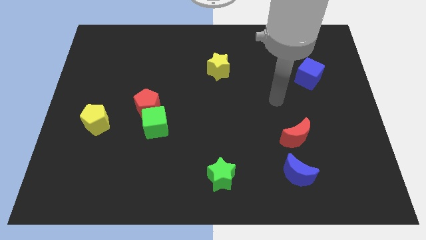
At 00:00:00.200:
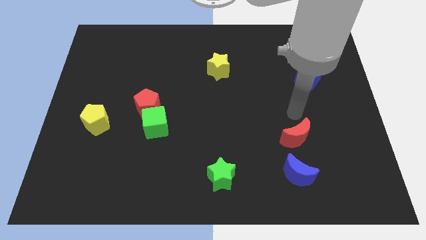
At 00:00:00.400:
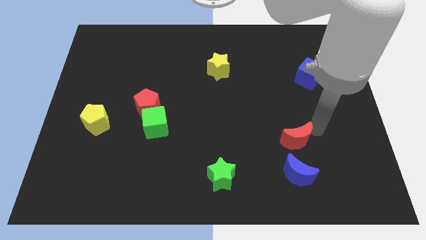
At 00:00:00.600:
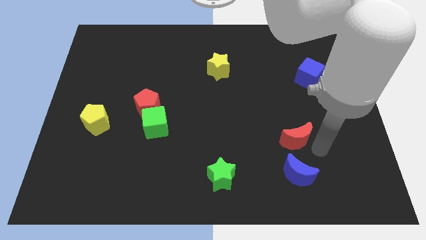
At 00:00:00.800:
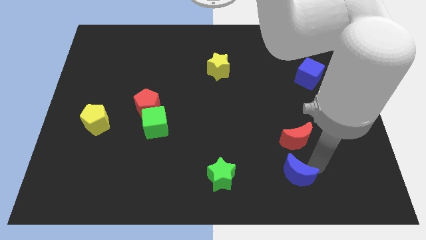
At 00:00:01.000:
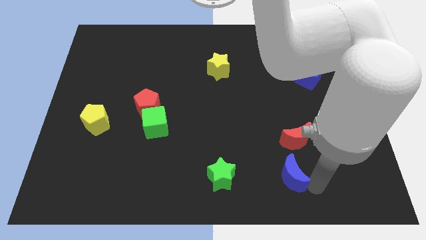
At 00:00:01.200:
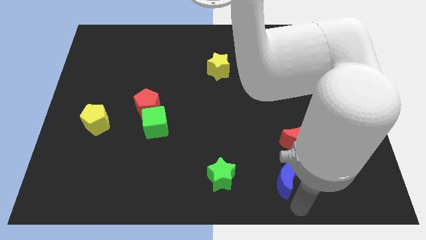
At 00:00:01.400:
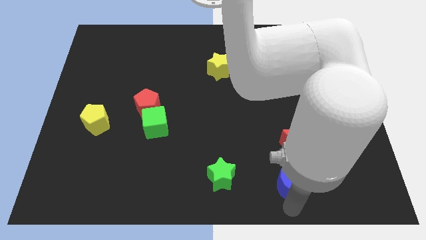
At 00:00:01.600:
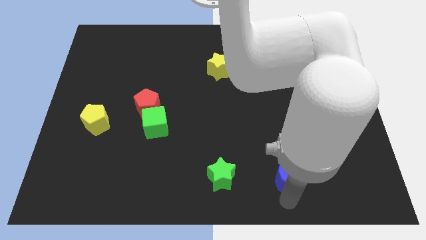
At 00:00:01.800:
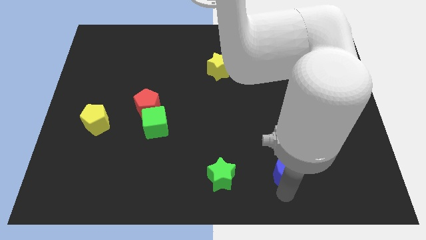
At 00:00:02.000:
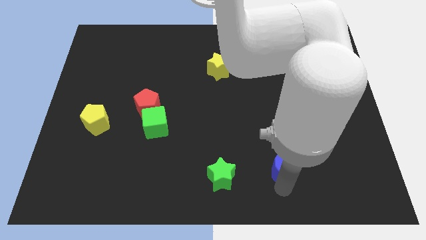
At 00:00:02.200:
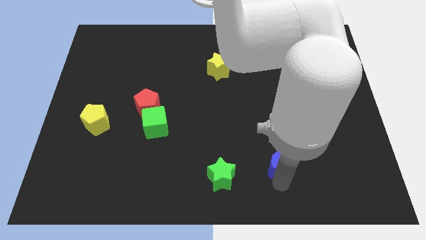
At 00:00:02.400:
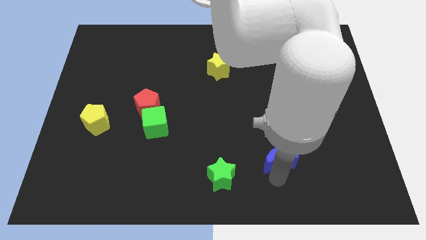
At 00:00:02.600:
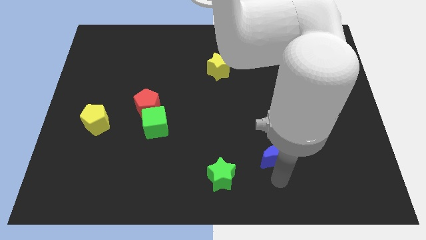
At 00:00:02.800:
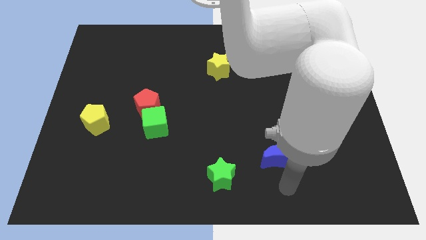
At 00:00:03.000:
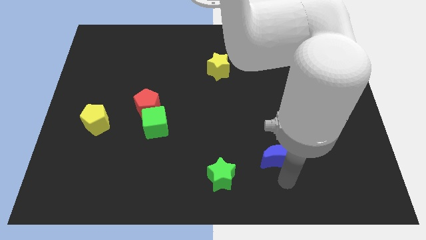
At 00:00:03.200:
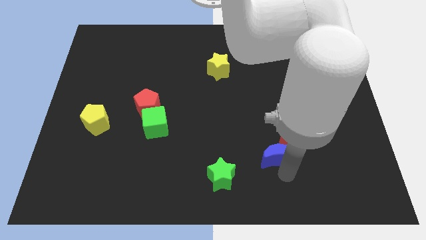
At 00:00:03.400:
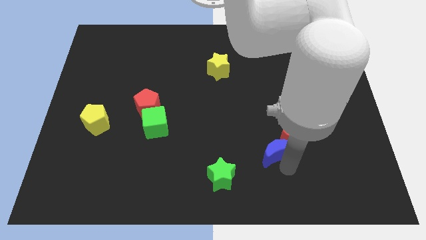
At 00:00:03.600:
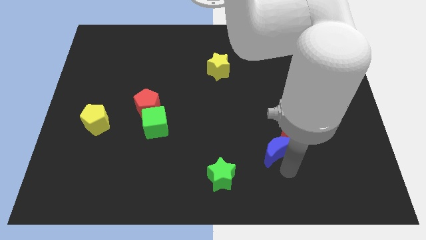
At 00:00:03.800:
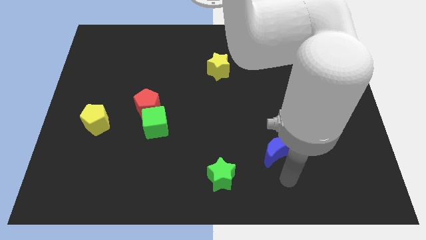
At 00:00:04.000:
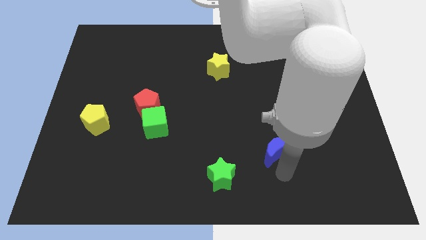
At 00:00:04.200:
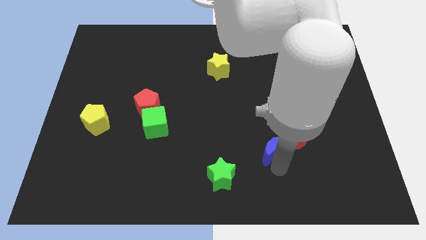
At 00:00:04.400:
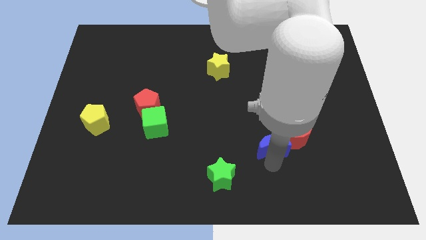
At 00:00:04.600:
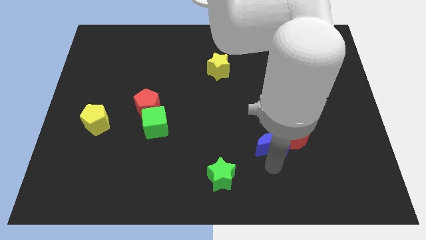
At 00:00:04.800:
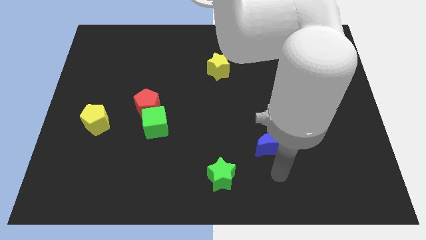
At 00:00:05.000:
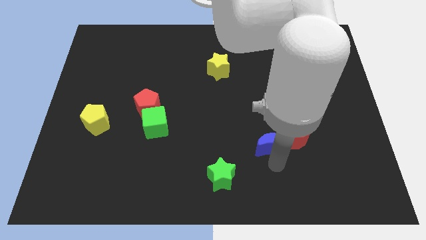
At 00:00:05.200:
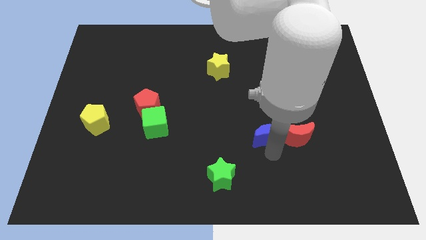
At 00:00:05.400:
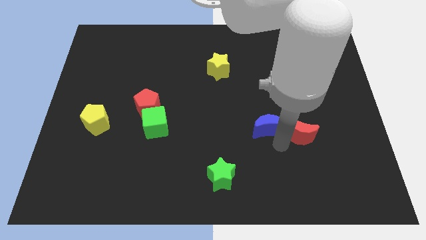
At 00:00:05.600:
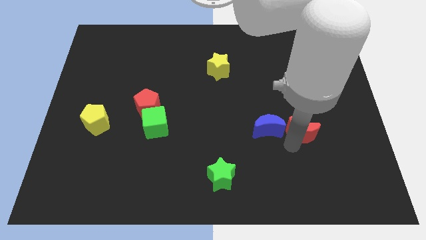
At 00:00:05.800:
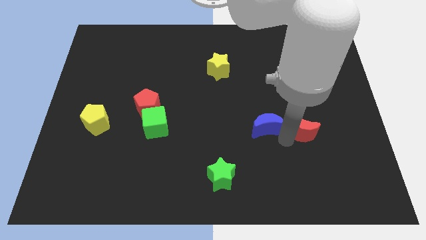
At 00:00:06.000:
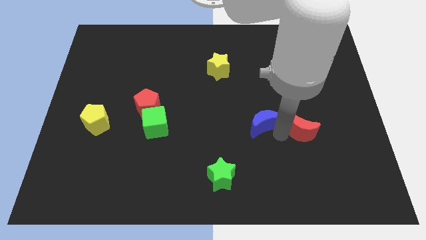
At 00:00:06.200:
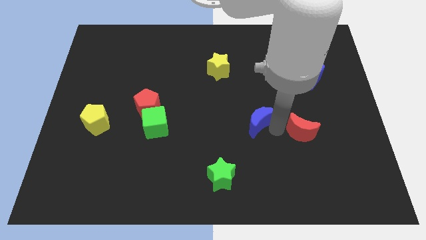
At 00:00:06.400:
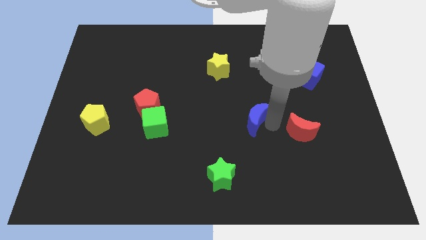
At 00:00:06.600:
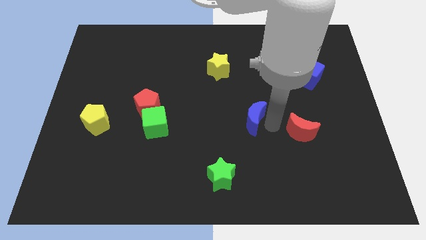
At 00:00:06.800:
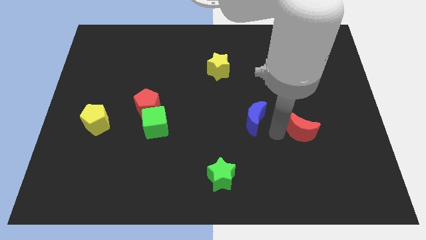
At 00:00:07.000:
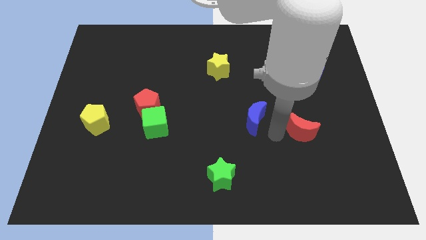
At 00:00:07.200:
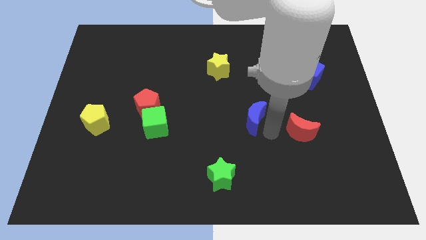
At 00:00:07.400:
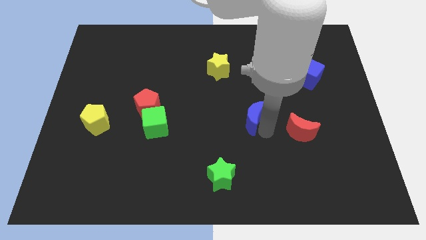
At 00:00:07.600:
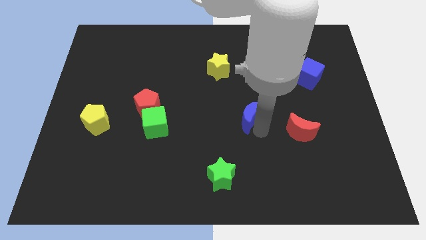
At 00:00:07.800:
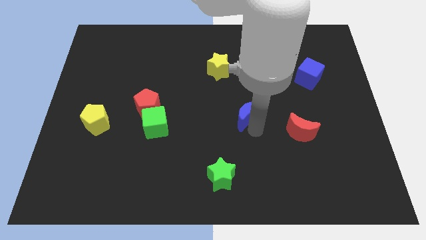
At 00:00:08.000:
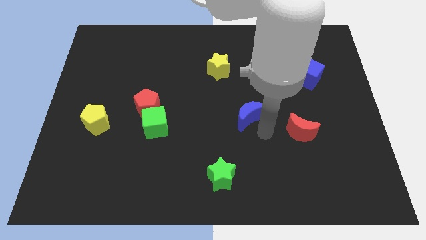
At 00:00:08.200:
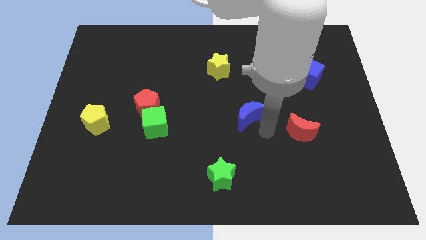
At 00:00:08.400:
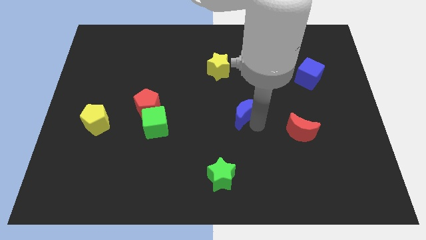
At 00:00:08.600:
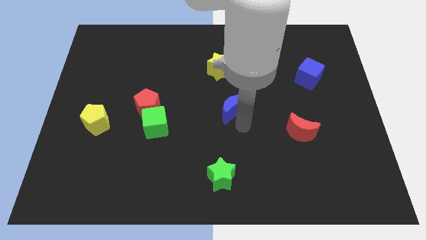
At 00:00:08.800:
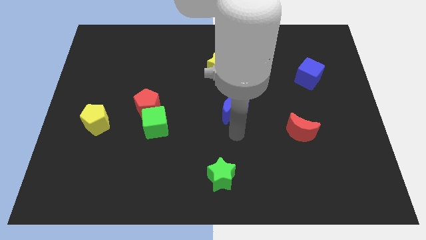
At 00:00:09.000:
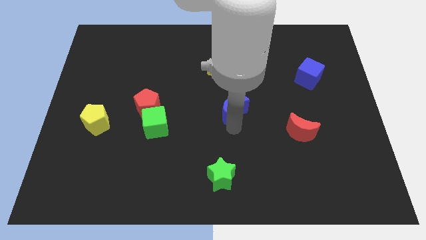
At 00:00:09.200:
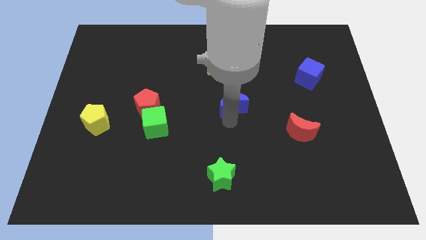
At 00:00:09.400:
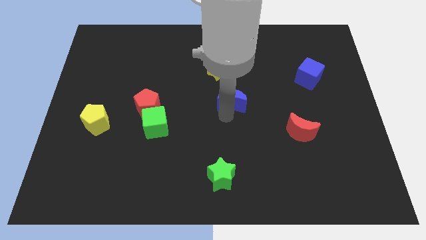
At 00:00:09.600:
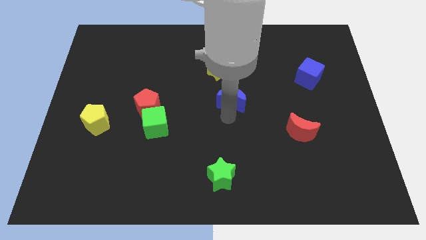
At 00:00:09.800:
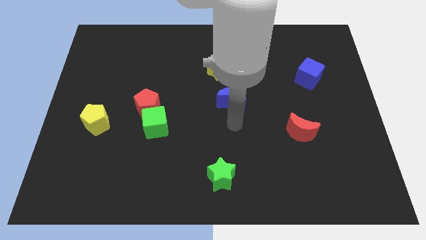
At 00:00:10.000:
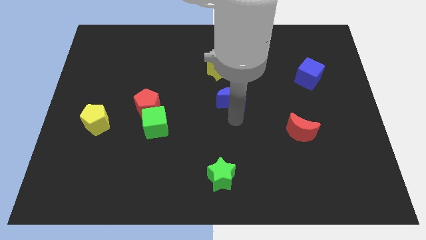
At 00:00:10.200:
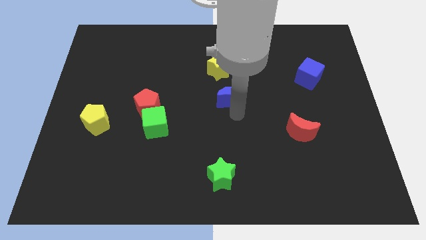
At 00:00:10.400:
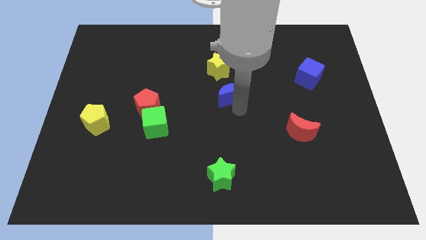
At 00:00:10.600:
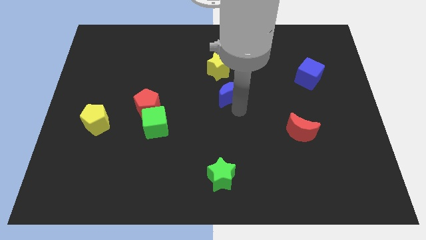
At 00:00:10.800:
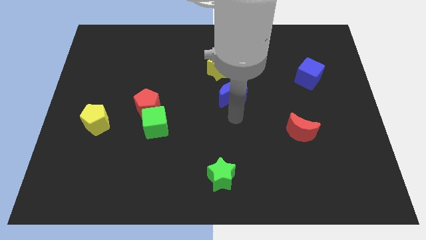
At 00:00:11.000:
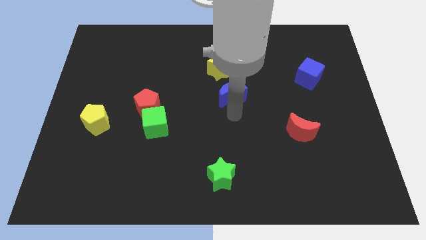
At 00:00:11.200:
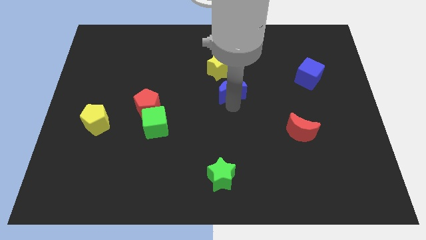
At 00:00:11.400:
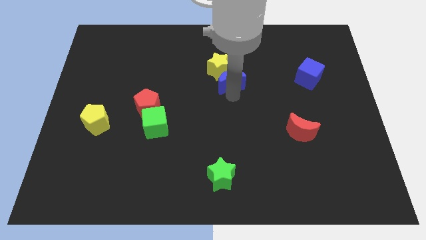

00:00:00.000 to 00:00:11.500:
push the blue moon towards the yellow star

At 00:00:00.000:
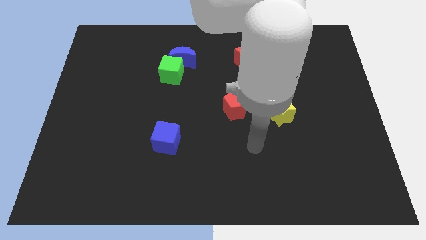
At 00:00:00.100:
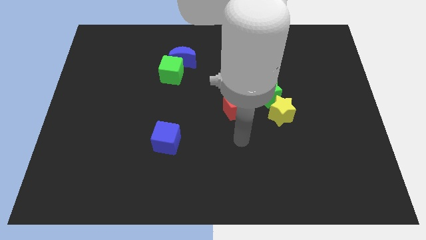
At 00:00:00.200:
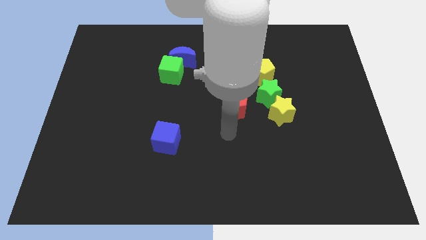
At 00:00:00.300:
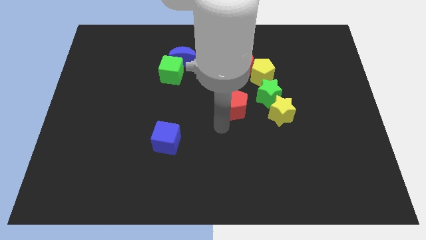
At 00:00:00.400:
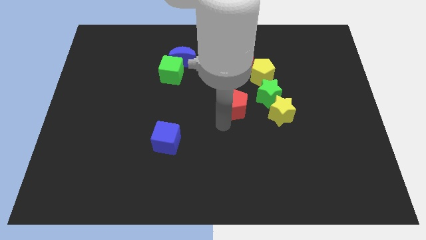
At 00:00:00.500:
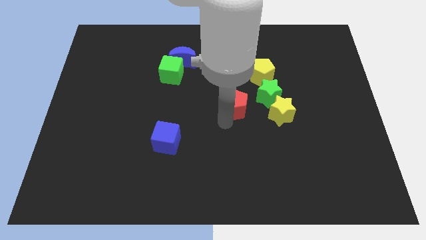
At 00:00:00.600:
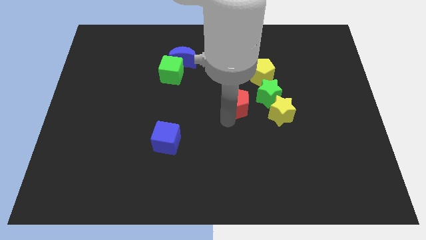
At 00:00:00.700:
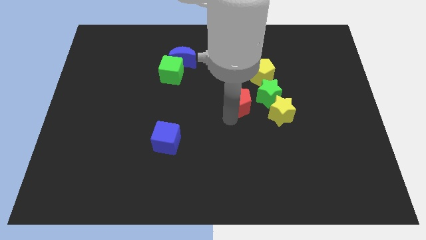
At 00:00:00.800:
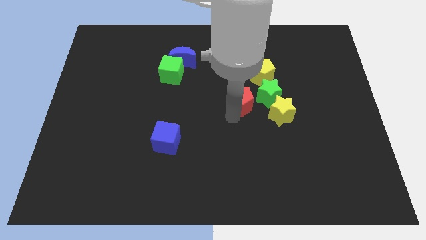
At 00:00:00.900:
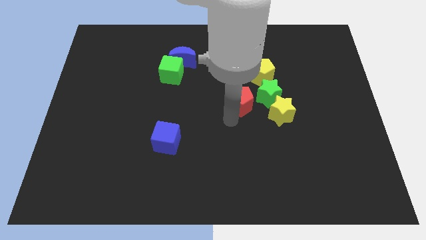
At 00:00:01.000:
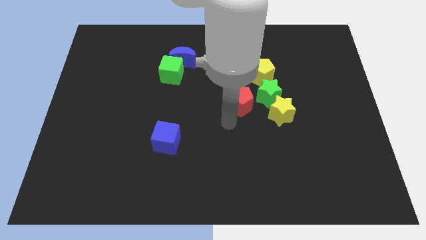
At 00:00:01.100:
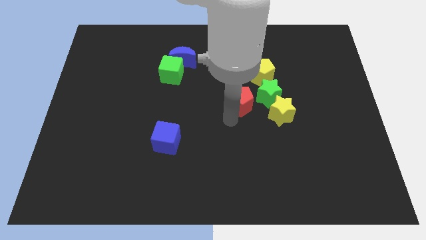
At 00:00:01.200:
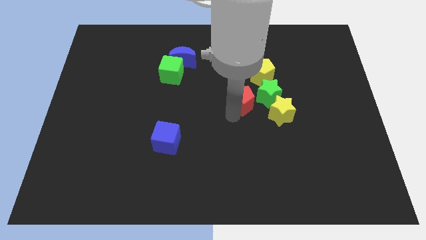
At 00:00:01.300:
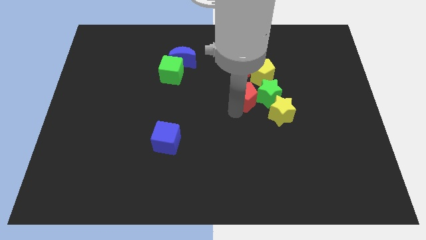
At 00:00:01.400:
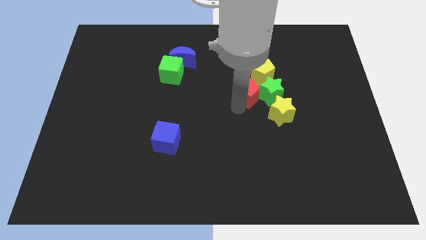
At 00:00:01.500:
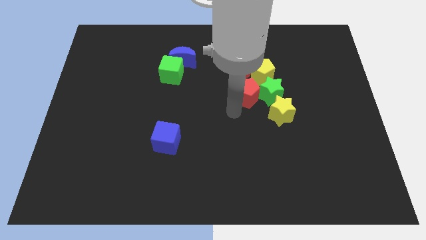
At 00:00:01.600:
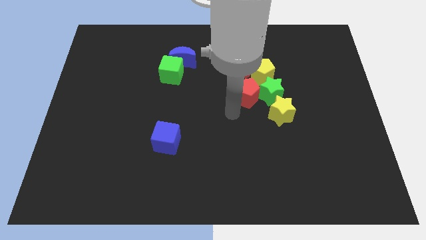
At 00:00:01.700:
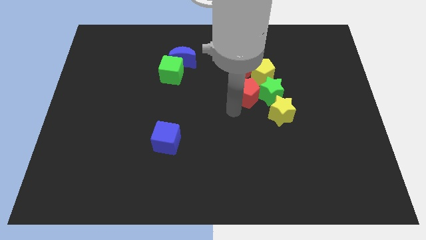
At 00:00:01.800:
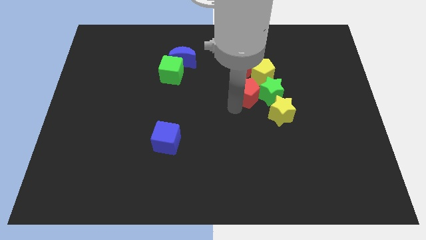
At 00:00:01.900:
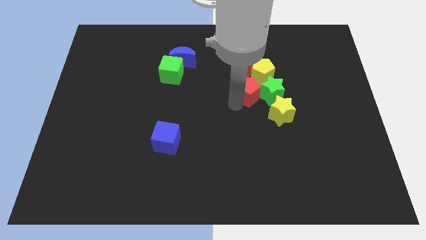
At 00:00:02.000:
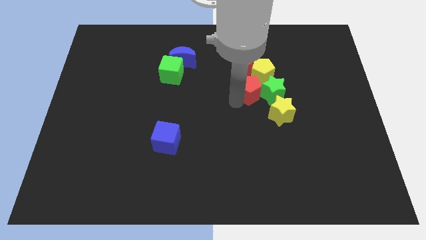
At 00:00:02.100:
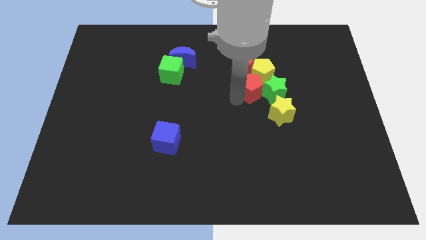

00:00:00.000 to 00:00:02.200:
slide the red pentagon to the yellow pentagon
